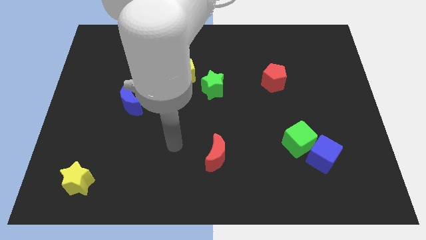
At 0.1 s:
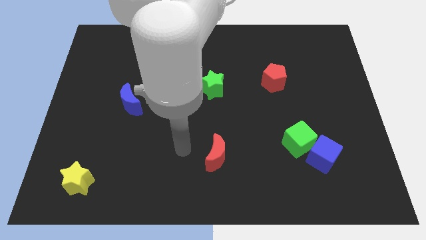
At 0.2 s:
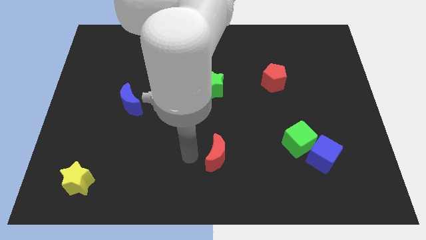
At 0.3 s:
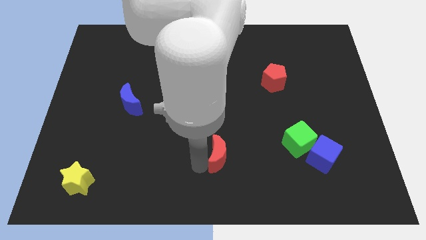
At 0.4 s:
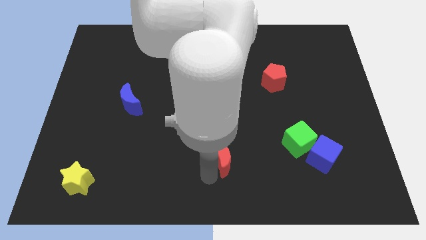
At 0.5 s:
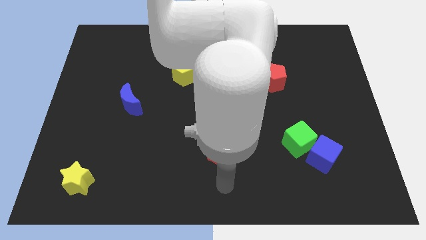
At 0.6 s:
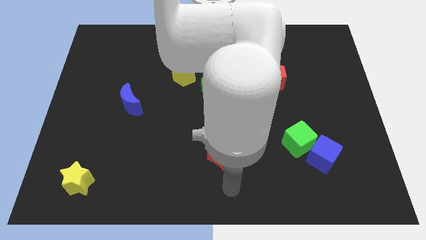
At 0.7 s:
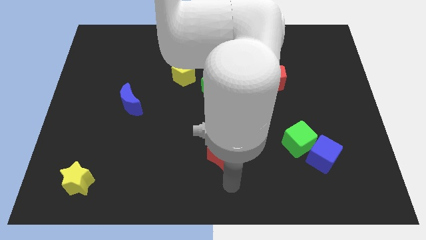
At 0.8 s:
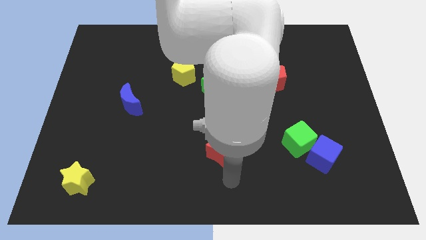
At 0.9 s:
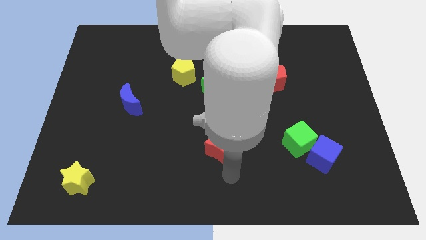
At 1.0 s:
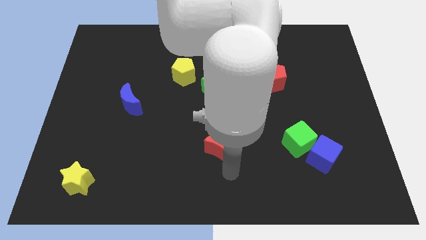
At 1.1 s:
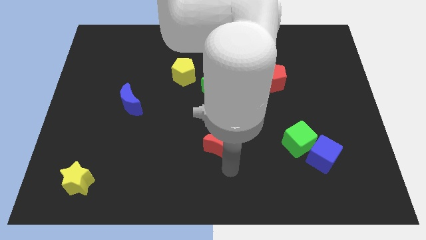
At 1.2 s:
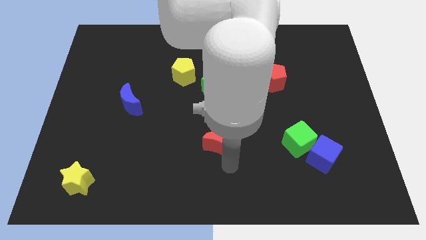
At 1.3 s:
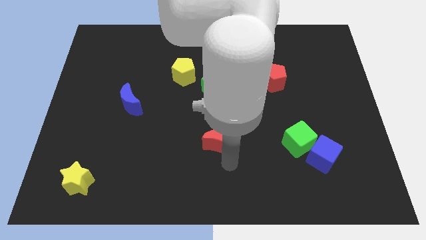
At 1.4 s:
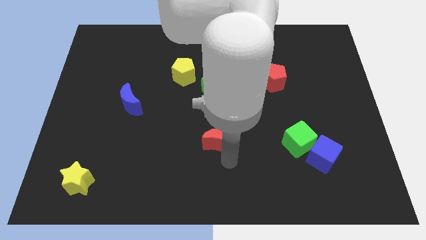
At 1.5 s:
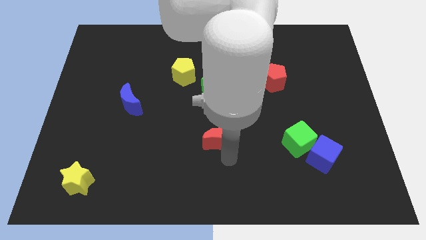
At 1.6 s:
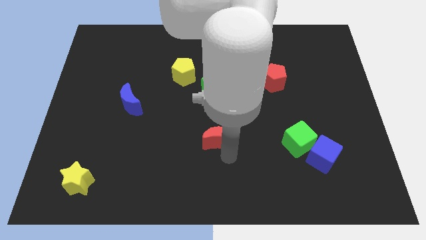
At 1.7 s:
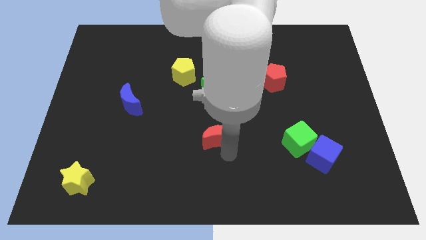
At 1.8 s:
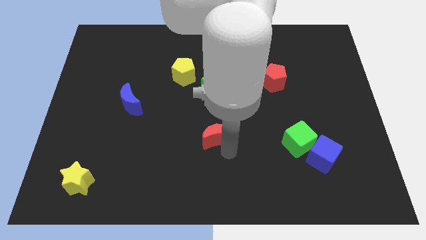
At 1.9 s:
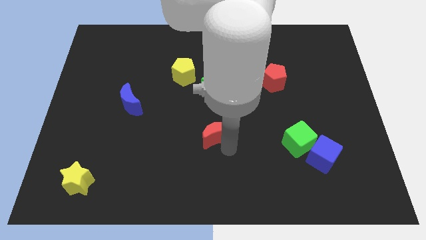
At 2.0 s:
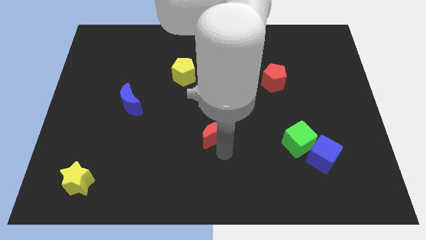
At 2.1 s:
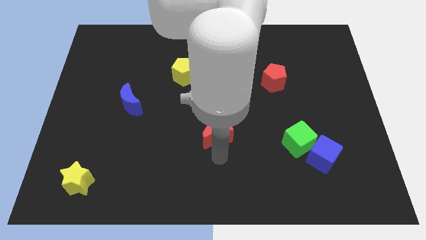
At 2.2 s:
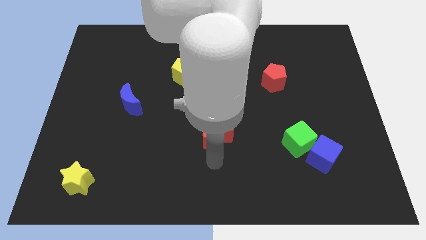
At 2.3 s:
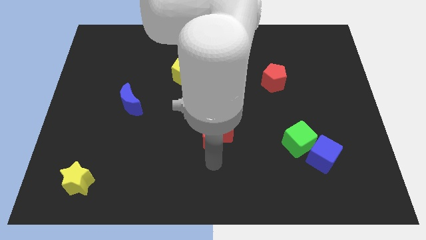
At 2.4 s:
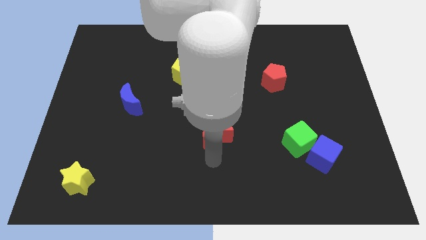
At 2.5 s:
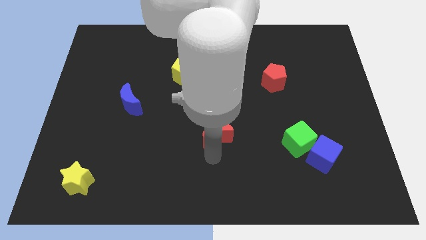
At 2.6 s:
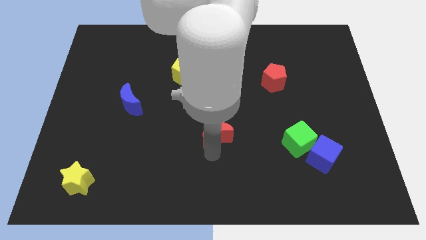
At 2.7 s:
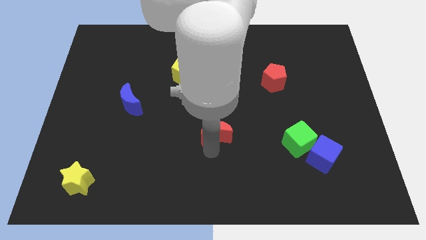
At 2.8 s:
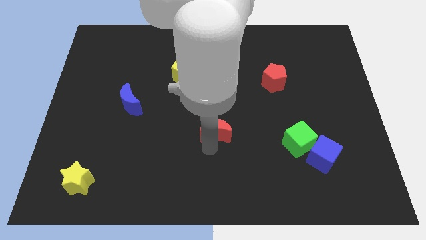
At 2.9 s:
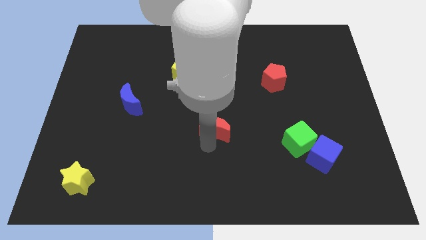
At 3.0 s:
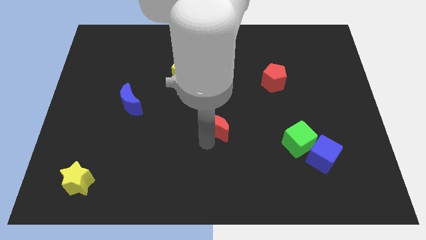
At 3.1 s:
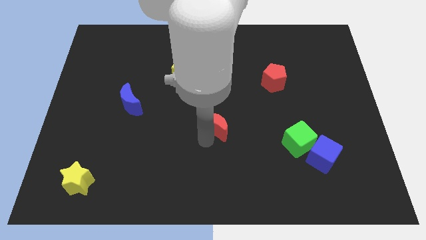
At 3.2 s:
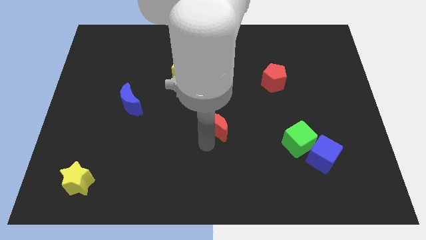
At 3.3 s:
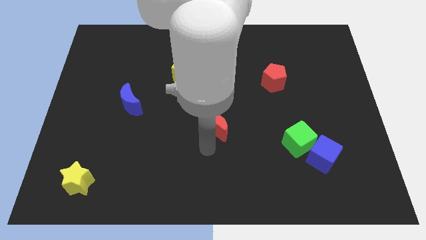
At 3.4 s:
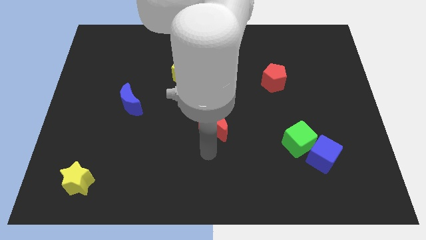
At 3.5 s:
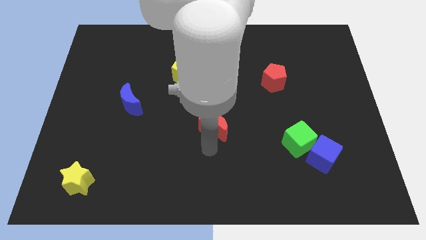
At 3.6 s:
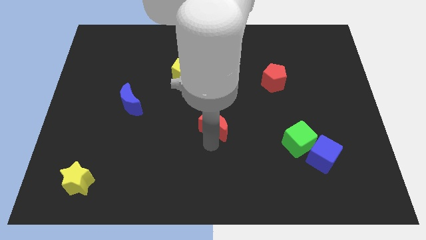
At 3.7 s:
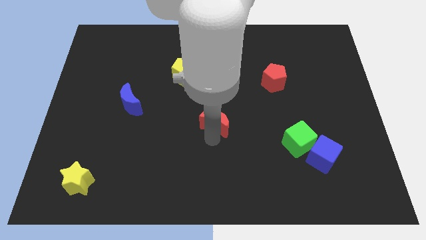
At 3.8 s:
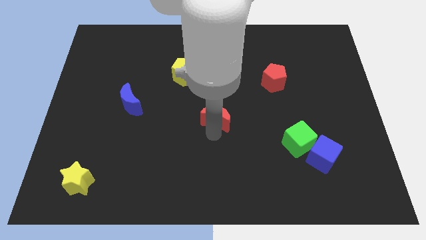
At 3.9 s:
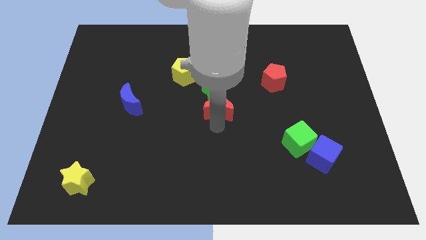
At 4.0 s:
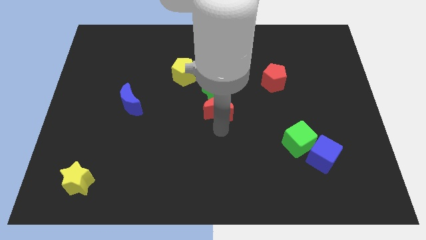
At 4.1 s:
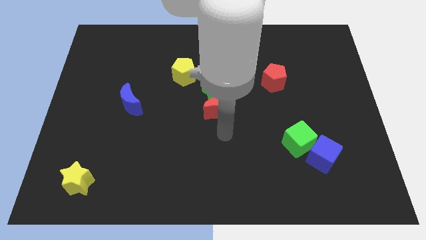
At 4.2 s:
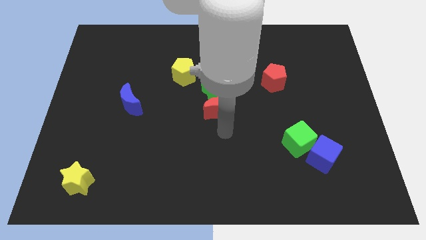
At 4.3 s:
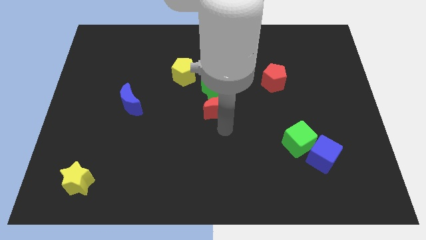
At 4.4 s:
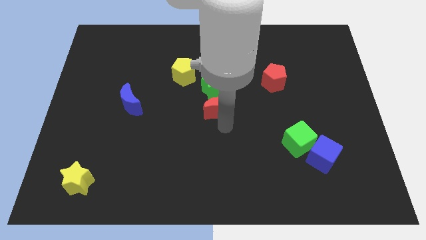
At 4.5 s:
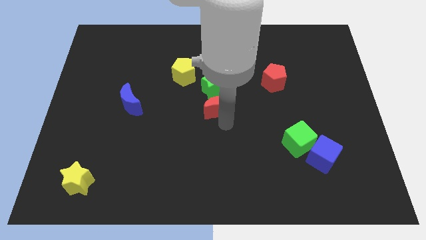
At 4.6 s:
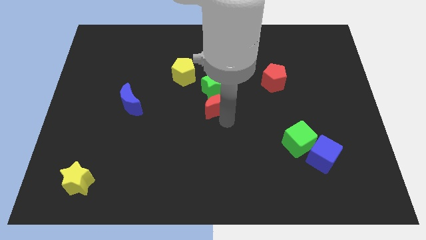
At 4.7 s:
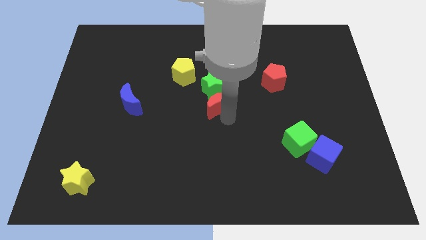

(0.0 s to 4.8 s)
put the red moon next to the green star

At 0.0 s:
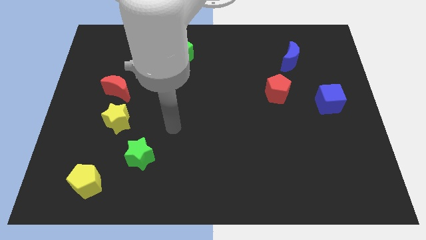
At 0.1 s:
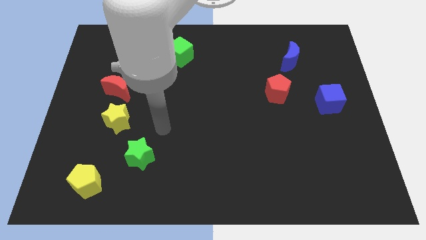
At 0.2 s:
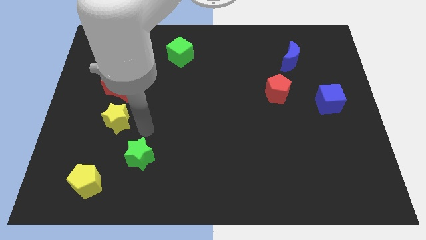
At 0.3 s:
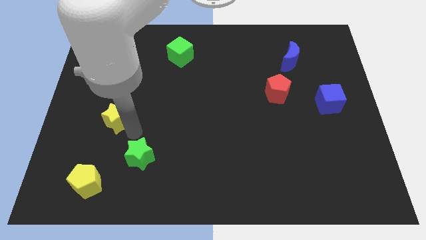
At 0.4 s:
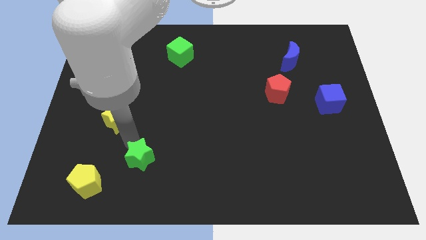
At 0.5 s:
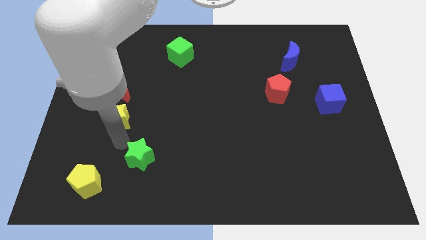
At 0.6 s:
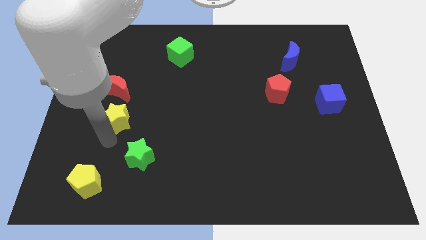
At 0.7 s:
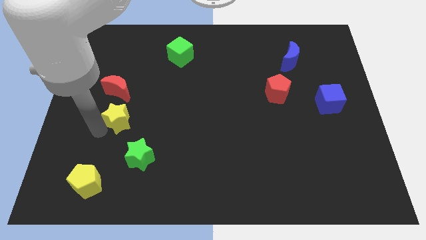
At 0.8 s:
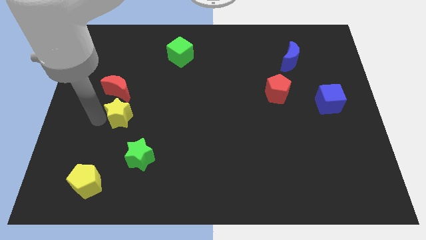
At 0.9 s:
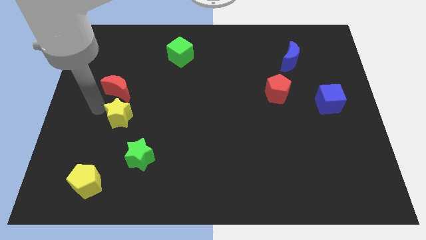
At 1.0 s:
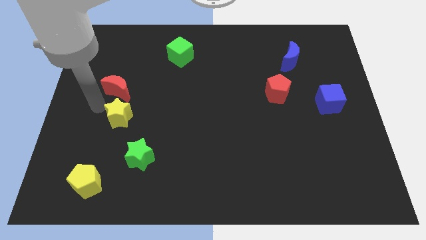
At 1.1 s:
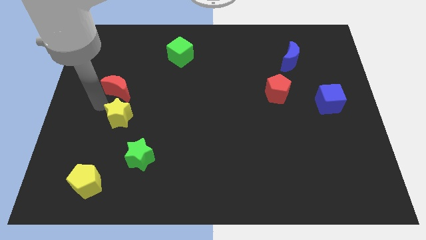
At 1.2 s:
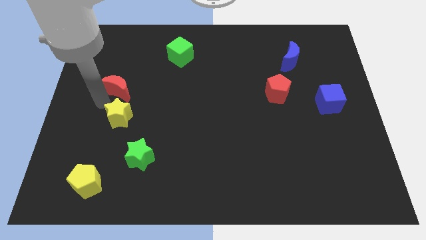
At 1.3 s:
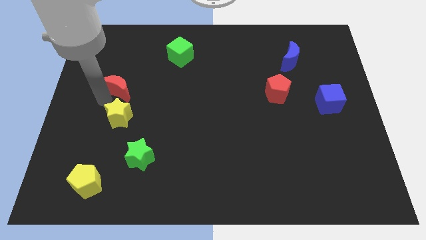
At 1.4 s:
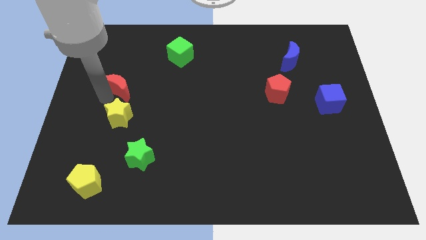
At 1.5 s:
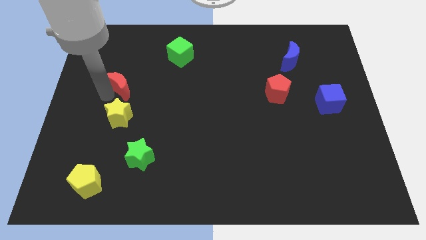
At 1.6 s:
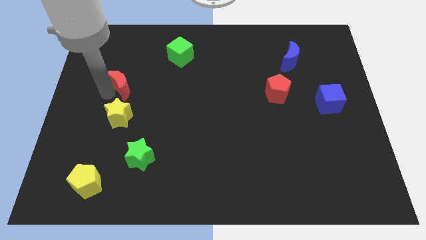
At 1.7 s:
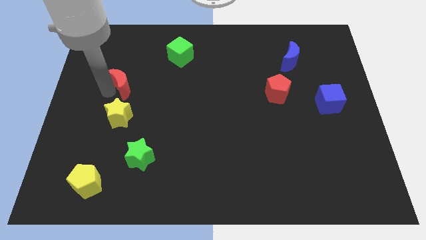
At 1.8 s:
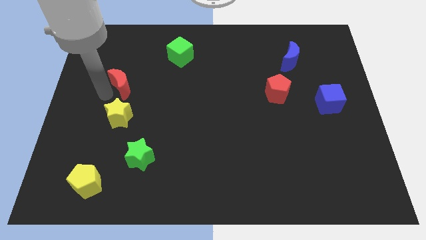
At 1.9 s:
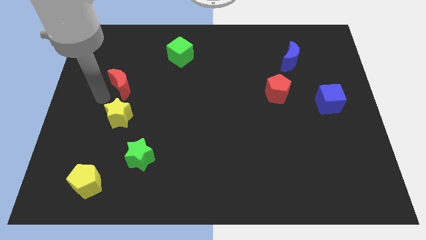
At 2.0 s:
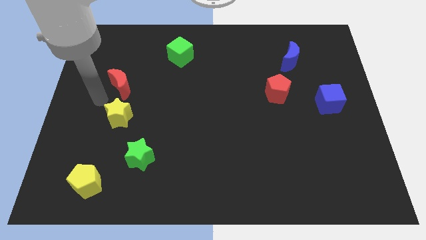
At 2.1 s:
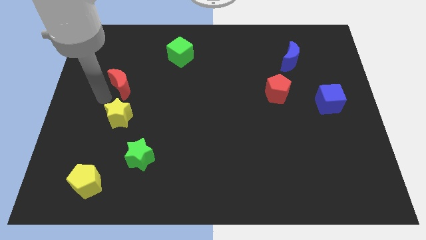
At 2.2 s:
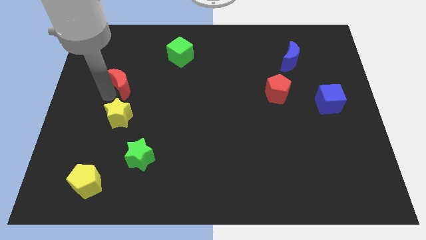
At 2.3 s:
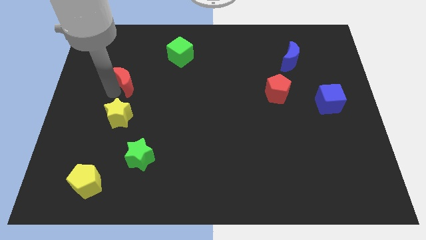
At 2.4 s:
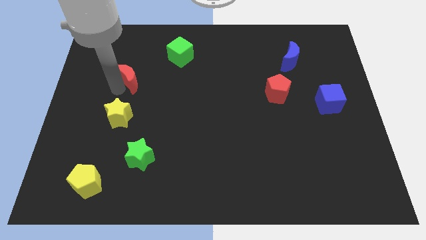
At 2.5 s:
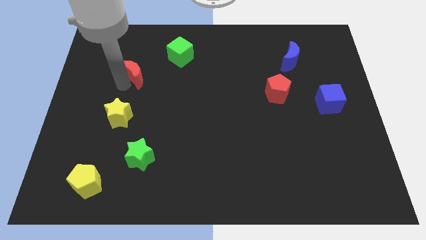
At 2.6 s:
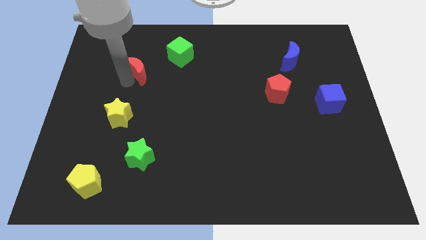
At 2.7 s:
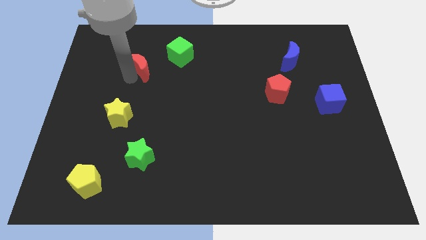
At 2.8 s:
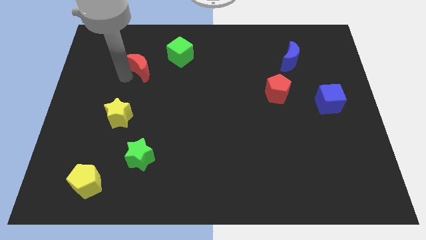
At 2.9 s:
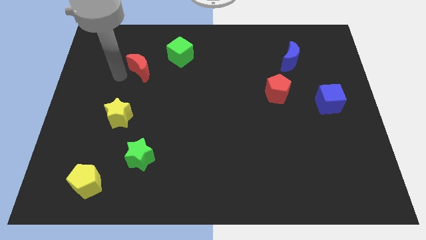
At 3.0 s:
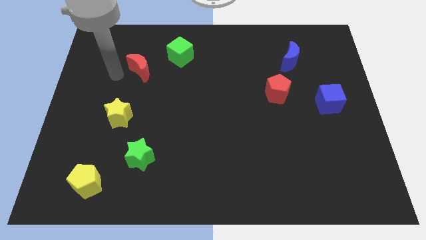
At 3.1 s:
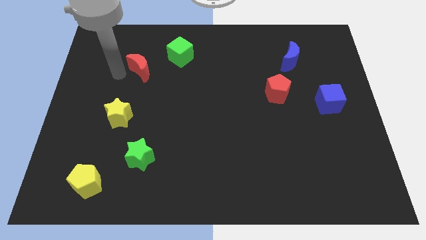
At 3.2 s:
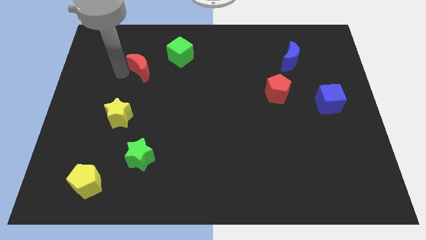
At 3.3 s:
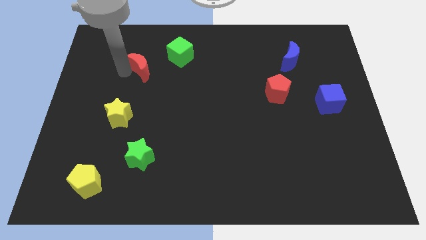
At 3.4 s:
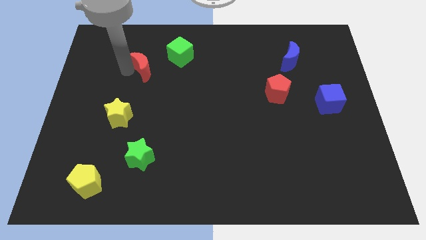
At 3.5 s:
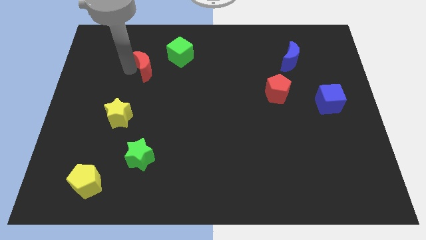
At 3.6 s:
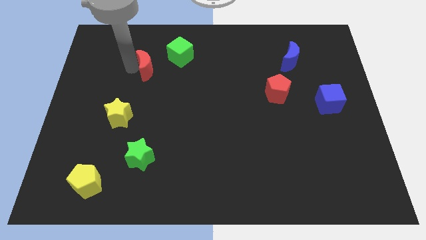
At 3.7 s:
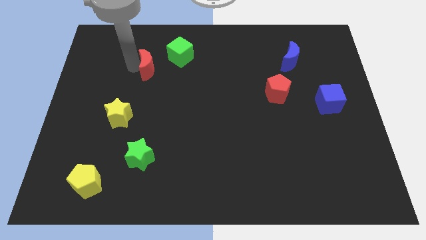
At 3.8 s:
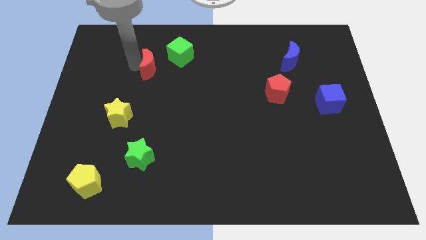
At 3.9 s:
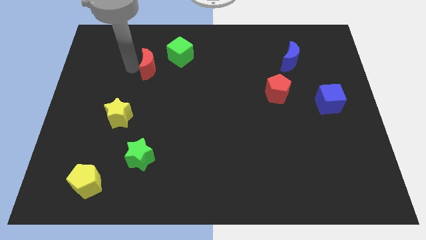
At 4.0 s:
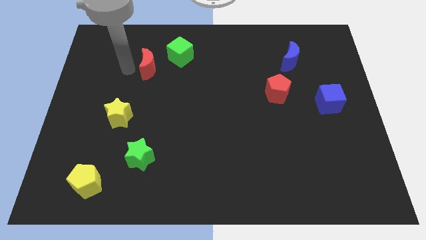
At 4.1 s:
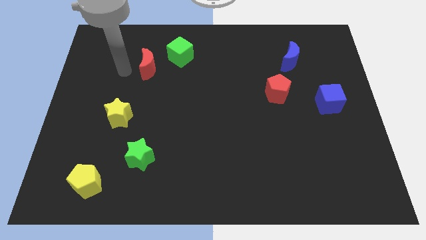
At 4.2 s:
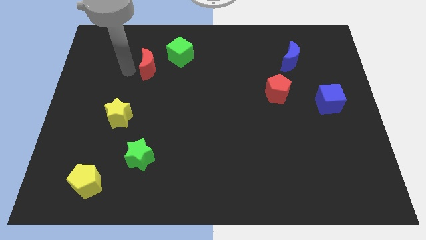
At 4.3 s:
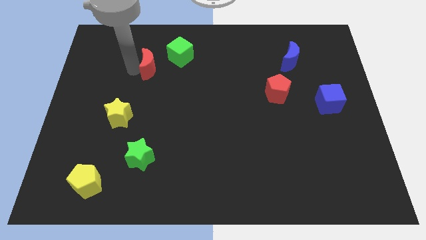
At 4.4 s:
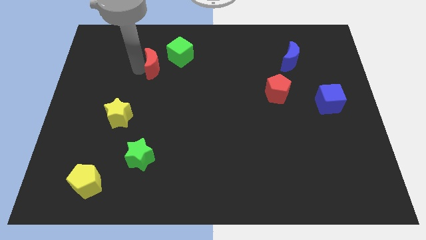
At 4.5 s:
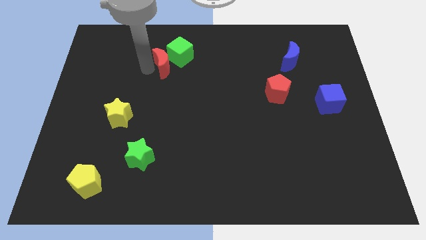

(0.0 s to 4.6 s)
move the red moon to the green cube
